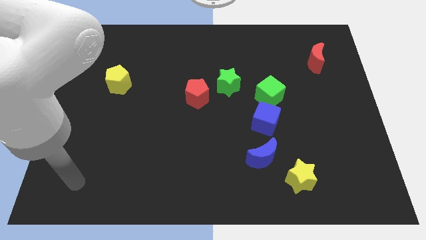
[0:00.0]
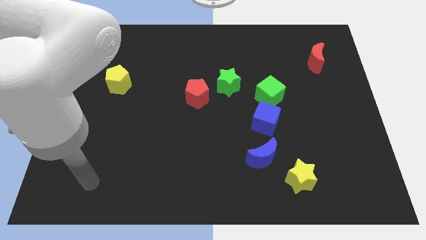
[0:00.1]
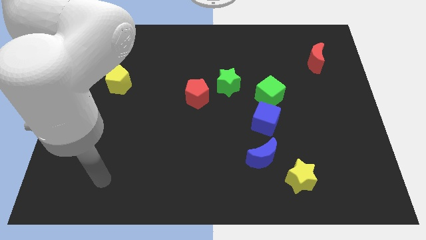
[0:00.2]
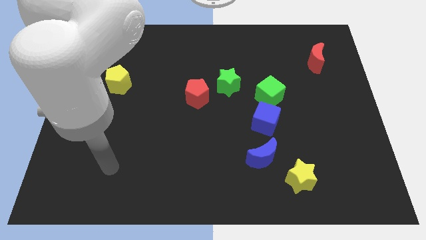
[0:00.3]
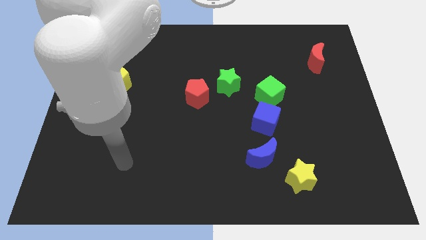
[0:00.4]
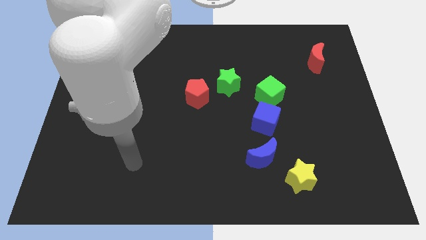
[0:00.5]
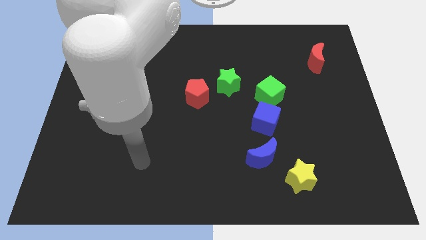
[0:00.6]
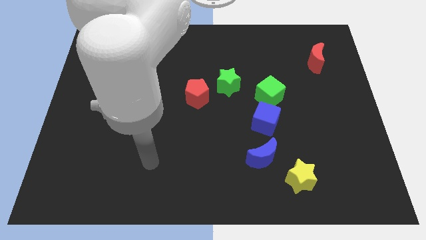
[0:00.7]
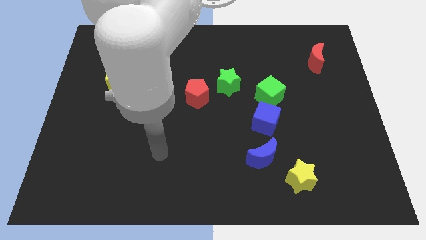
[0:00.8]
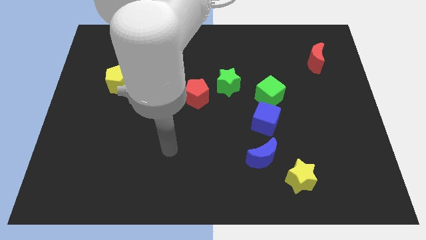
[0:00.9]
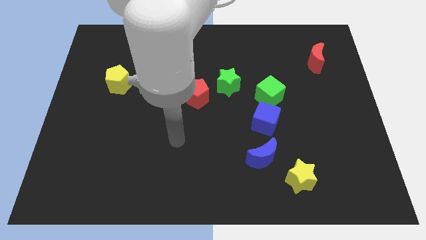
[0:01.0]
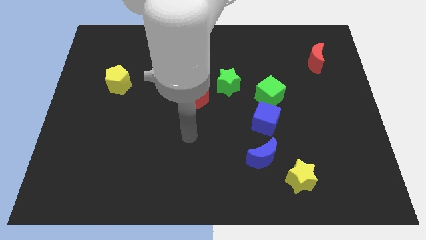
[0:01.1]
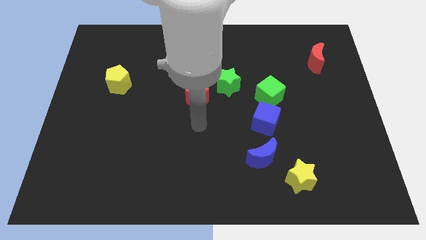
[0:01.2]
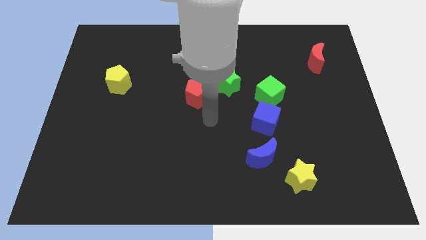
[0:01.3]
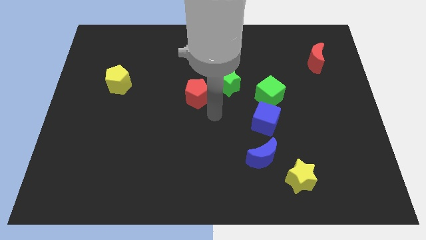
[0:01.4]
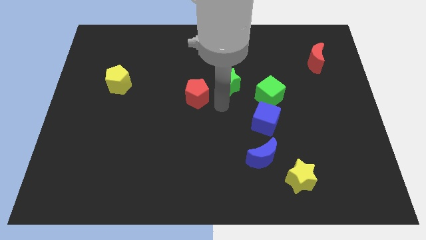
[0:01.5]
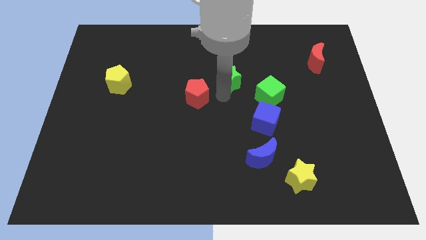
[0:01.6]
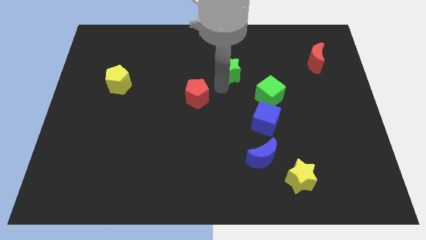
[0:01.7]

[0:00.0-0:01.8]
move the red pentagon away from the green star

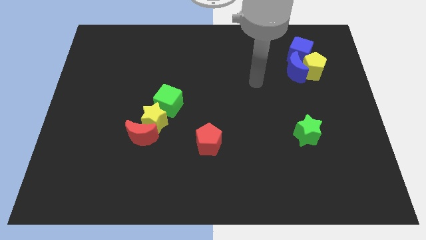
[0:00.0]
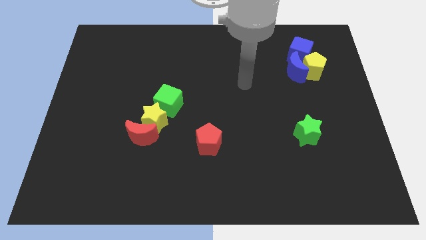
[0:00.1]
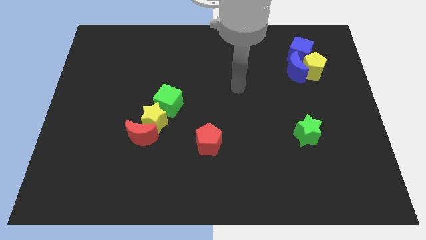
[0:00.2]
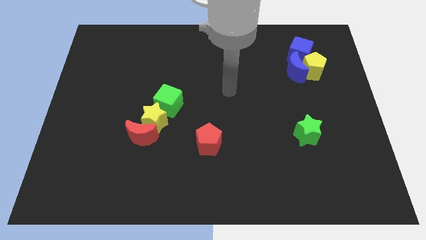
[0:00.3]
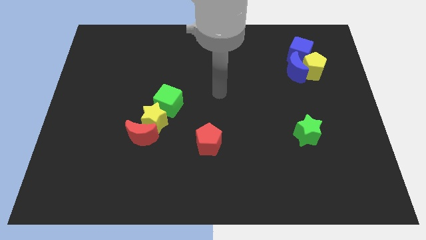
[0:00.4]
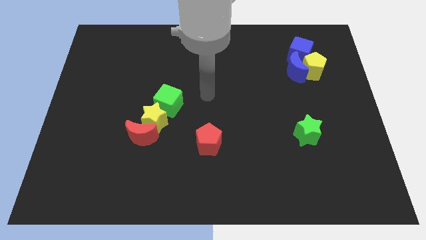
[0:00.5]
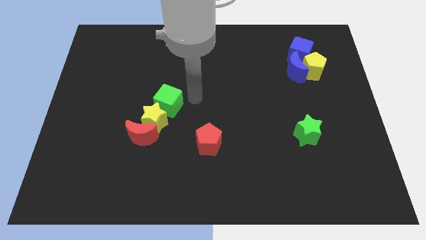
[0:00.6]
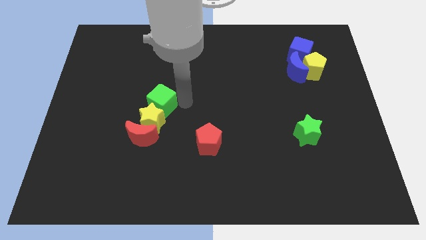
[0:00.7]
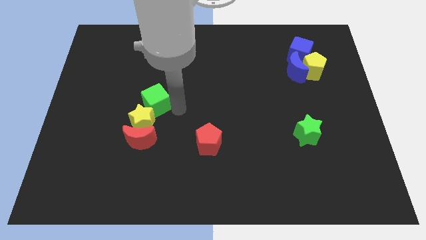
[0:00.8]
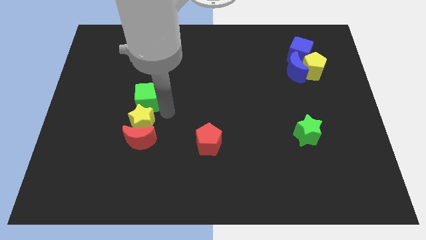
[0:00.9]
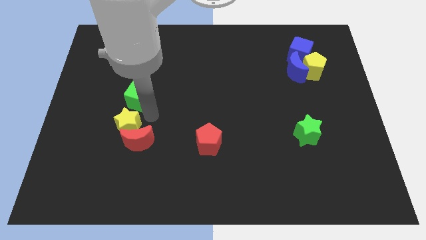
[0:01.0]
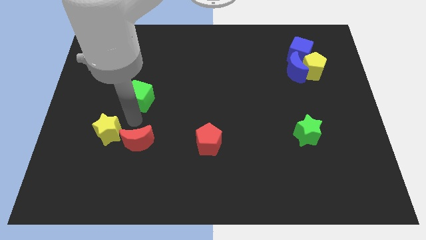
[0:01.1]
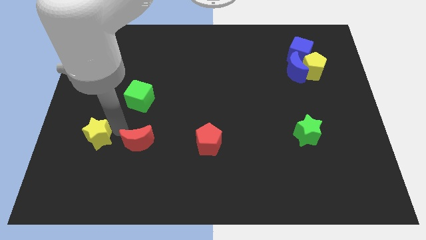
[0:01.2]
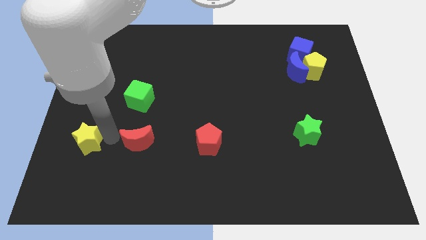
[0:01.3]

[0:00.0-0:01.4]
pull the red moon apart from the yellow star

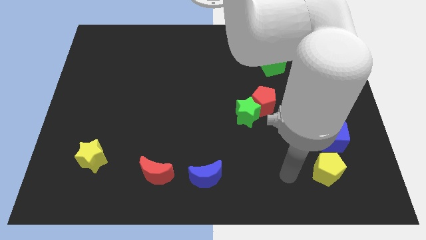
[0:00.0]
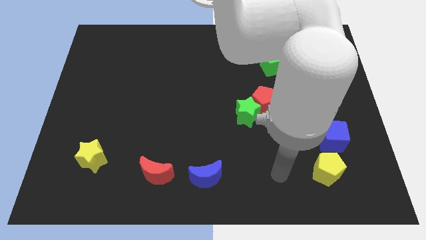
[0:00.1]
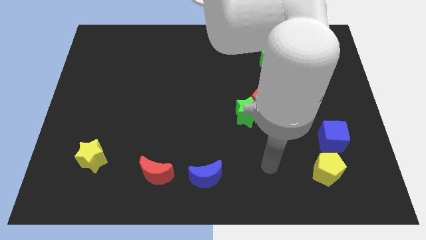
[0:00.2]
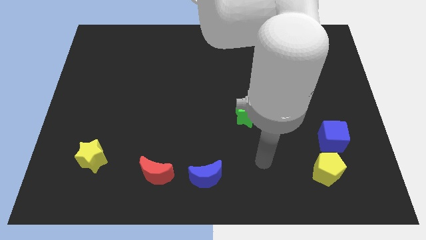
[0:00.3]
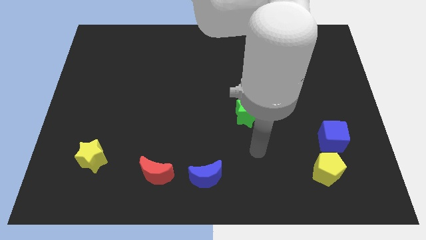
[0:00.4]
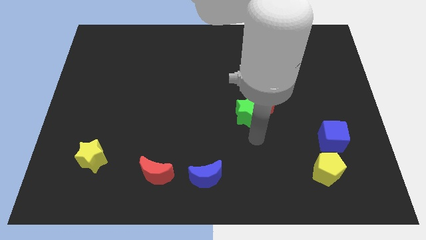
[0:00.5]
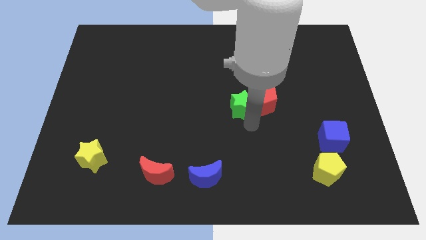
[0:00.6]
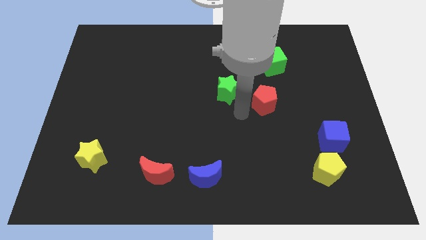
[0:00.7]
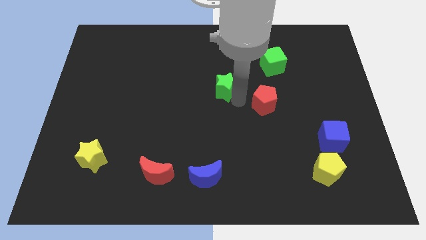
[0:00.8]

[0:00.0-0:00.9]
pull the red pentagon apart from the green star

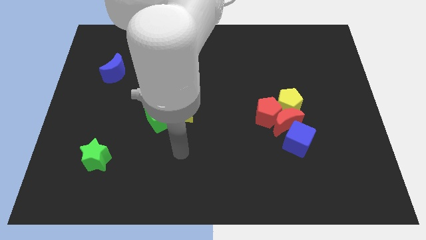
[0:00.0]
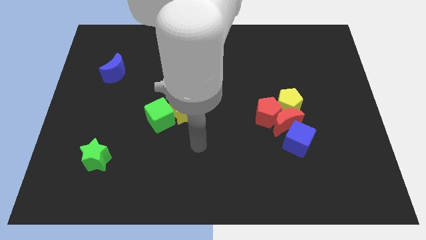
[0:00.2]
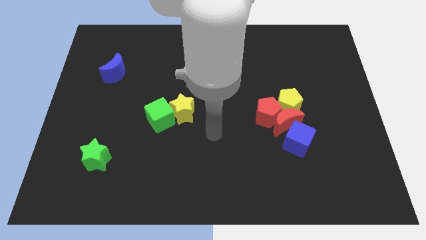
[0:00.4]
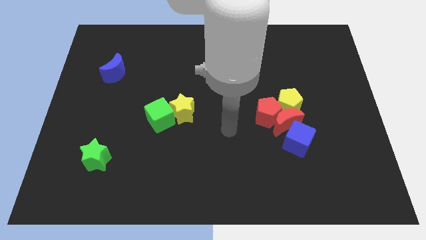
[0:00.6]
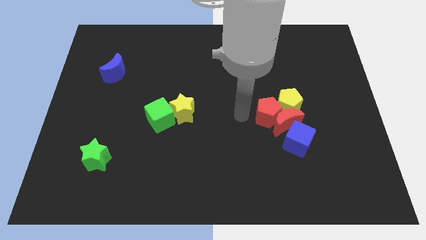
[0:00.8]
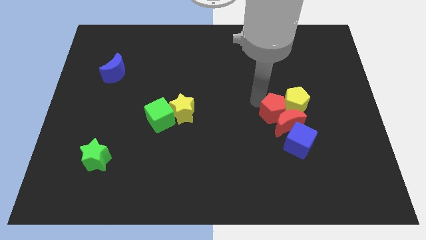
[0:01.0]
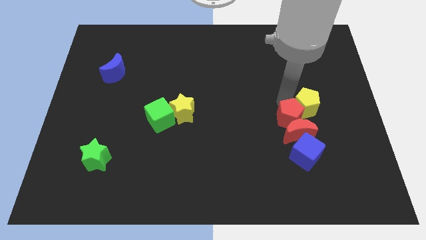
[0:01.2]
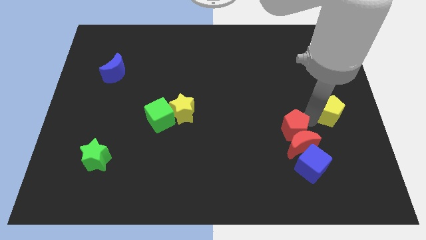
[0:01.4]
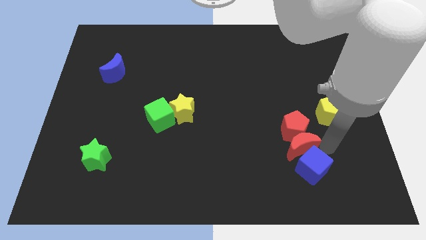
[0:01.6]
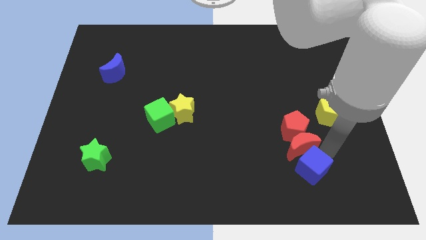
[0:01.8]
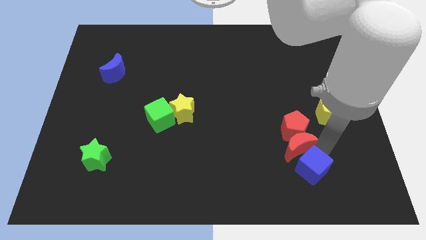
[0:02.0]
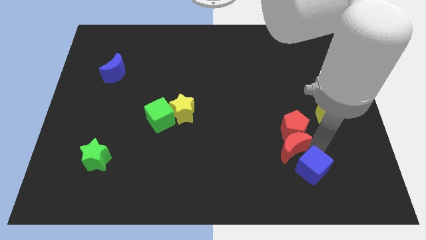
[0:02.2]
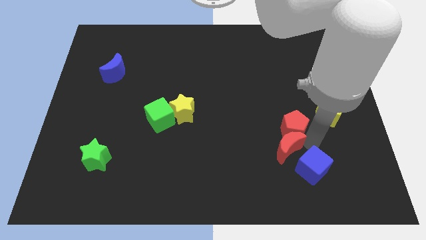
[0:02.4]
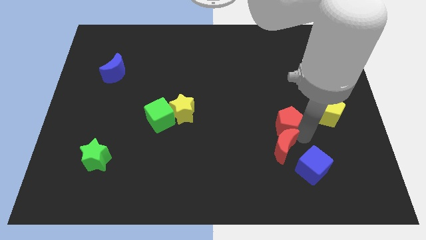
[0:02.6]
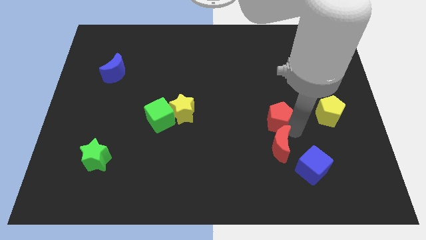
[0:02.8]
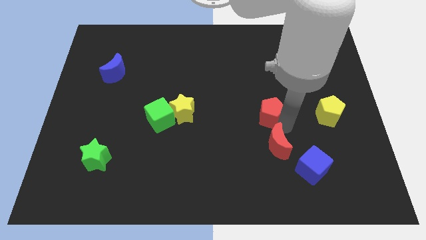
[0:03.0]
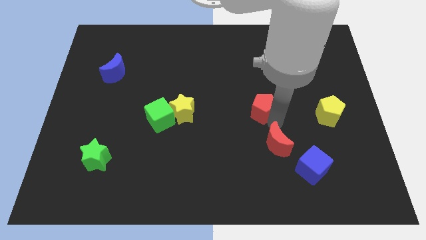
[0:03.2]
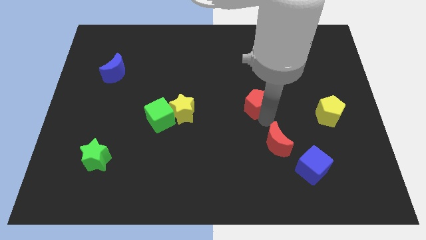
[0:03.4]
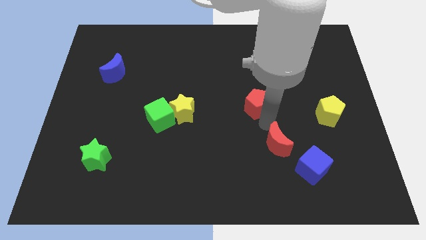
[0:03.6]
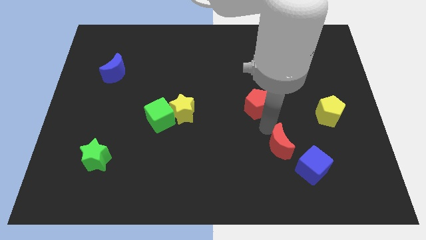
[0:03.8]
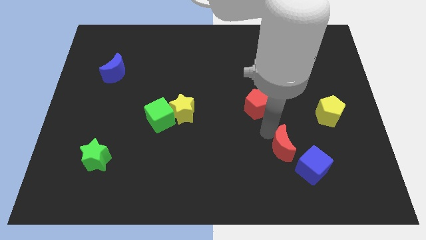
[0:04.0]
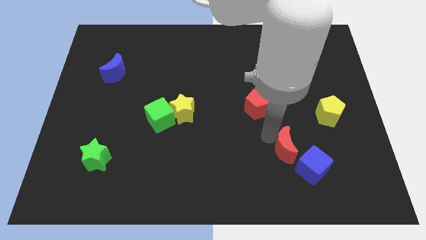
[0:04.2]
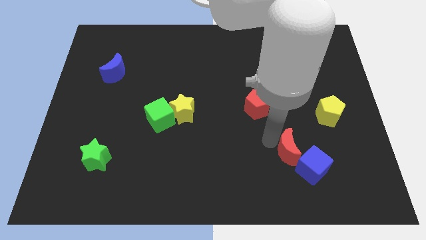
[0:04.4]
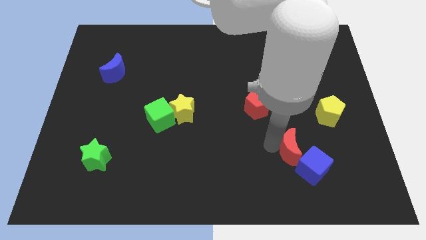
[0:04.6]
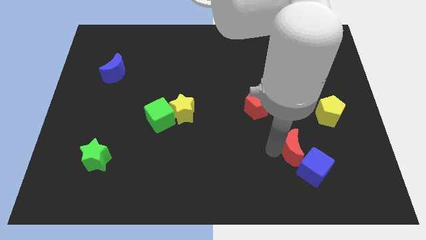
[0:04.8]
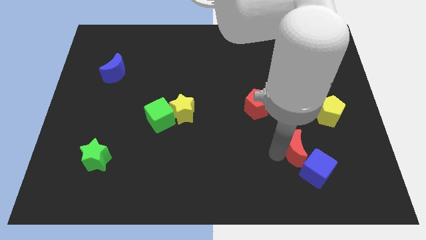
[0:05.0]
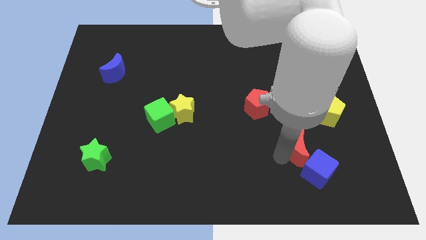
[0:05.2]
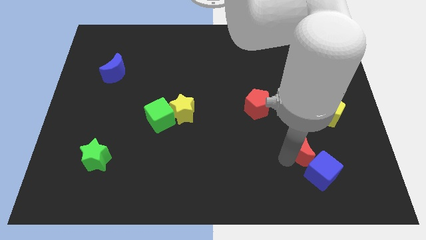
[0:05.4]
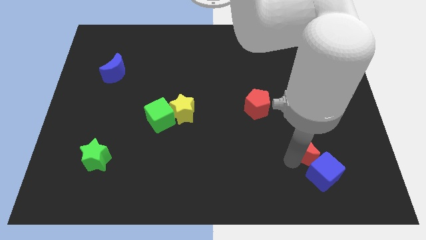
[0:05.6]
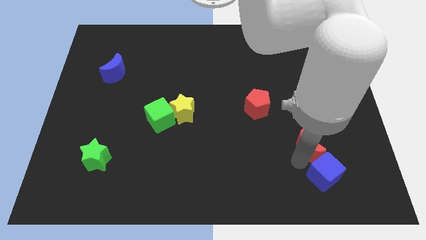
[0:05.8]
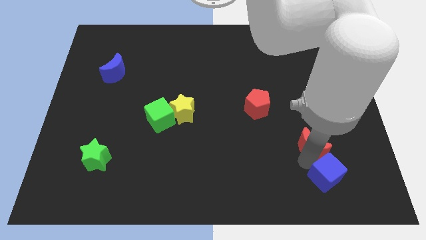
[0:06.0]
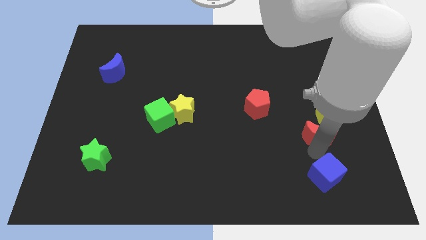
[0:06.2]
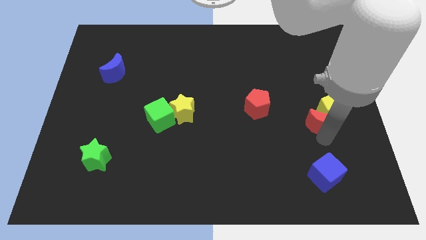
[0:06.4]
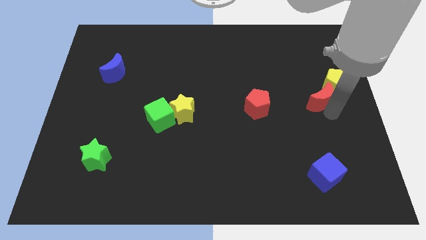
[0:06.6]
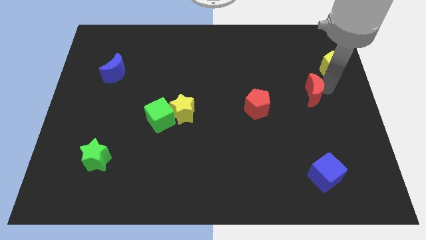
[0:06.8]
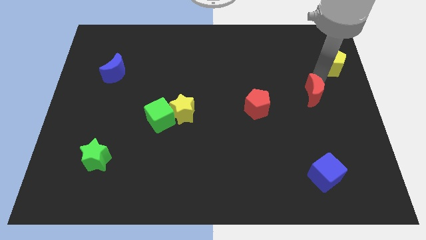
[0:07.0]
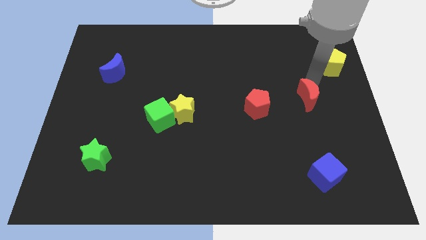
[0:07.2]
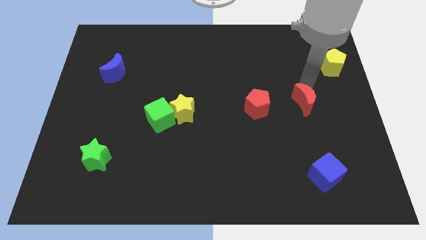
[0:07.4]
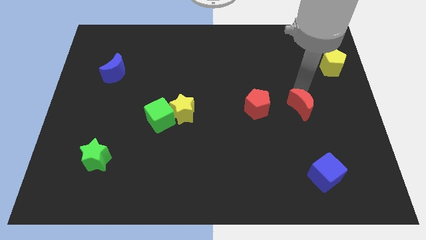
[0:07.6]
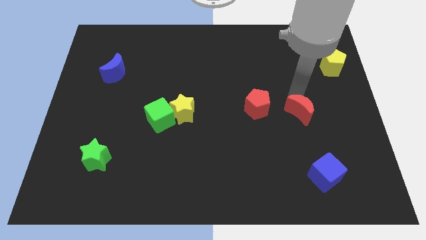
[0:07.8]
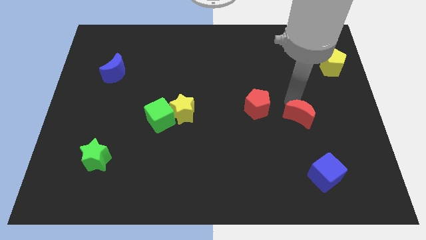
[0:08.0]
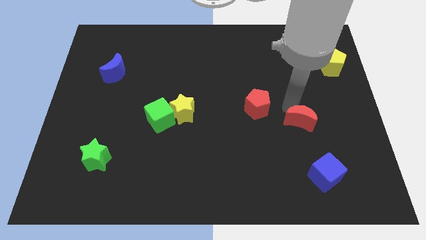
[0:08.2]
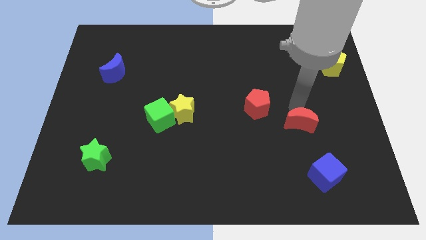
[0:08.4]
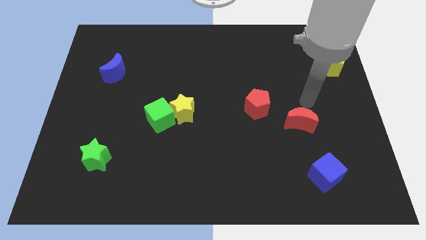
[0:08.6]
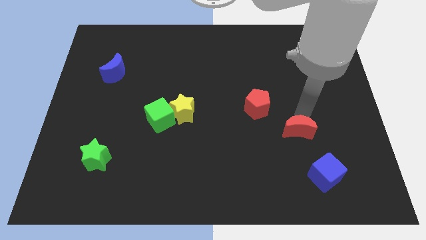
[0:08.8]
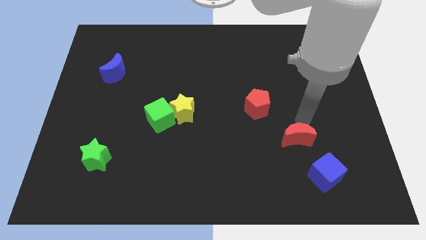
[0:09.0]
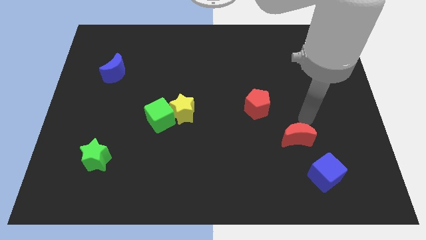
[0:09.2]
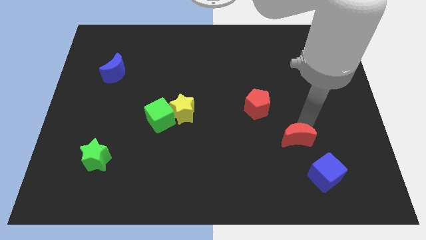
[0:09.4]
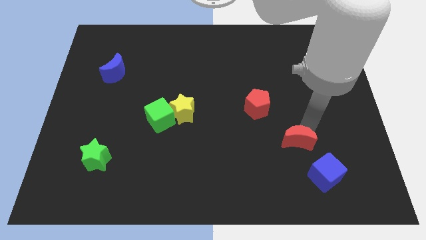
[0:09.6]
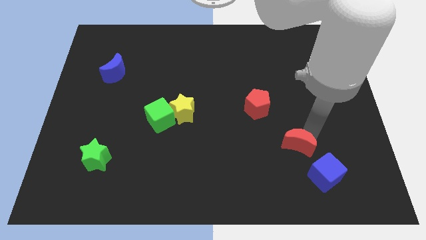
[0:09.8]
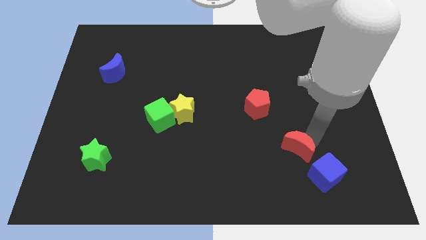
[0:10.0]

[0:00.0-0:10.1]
pull the red moon apart from the group

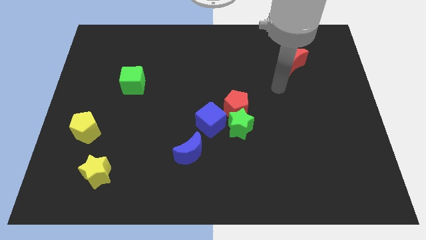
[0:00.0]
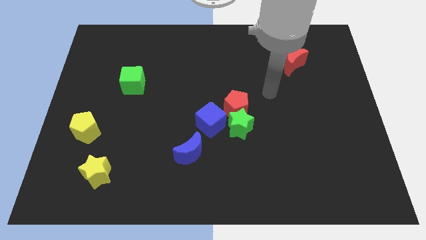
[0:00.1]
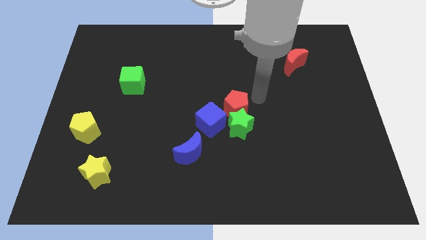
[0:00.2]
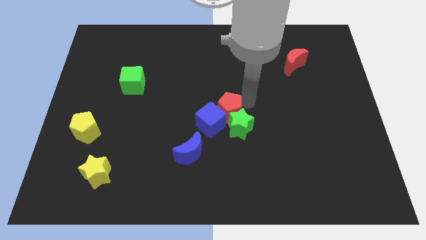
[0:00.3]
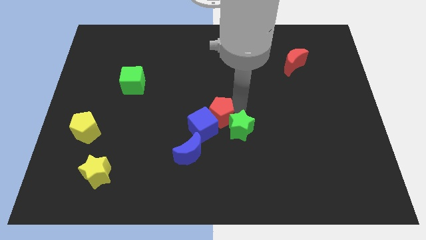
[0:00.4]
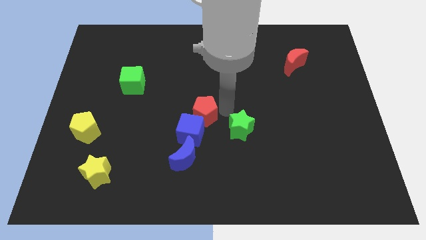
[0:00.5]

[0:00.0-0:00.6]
separate the green star from the red pentagon and blue cube
